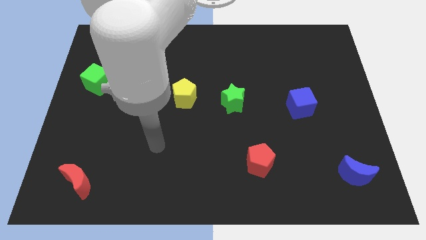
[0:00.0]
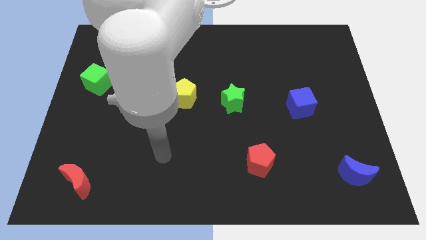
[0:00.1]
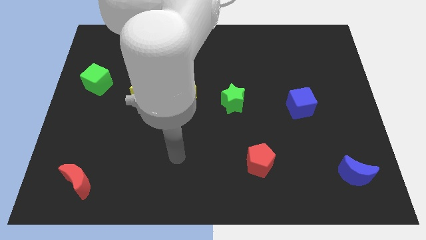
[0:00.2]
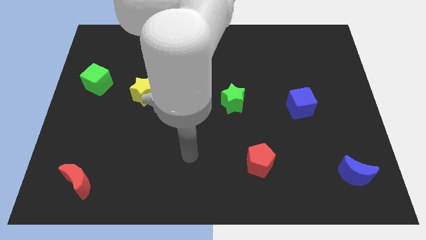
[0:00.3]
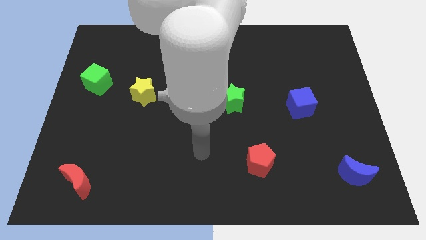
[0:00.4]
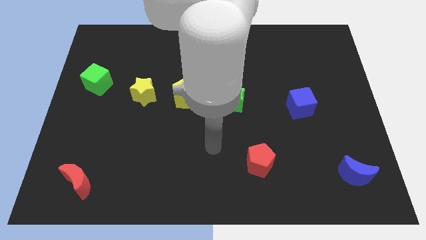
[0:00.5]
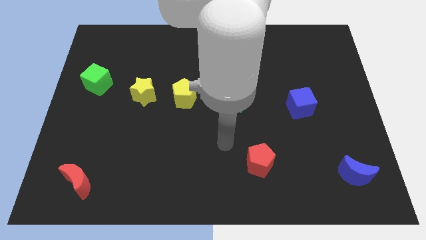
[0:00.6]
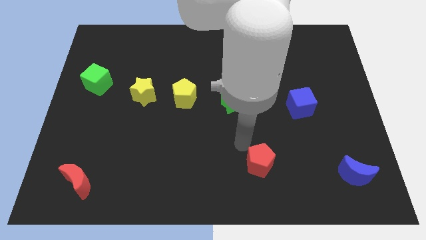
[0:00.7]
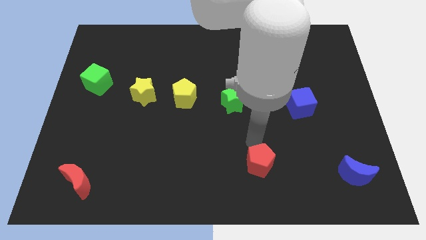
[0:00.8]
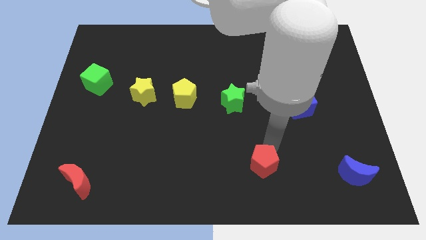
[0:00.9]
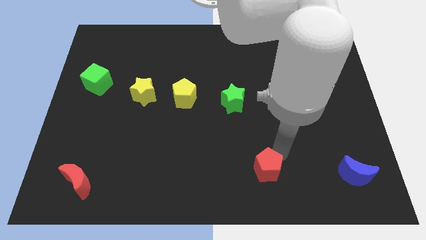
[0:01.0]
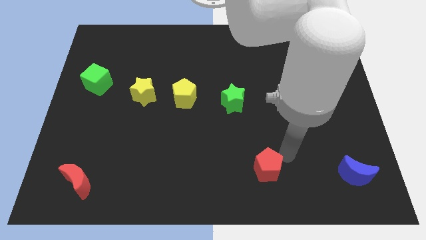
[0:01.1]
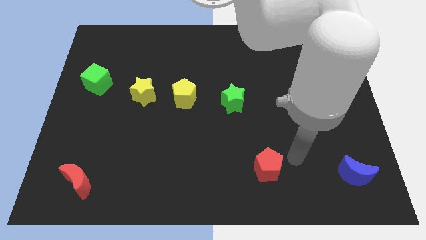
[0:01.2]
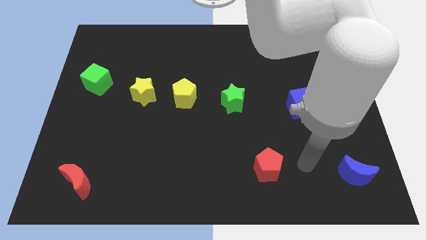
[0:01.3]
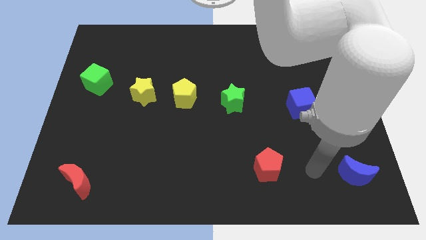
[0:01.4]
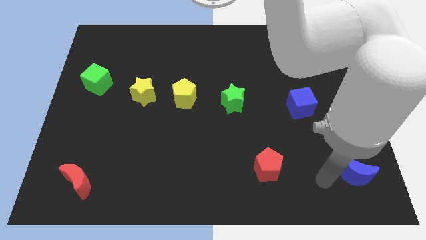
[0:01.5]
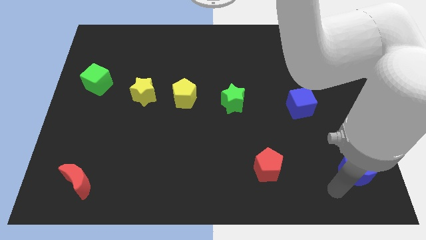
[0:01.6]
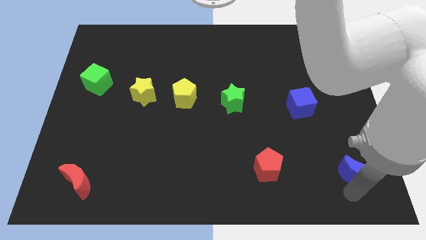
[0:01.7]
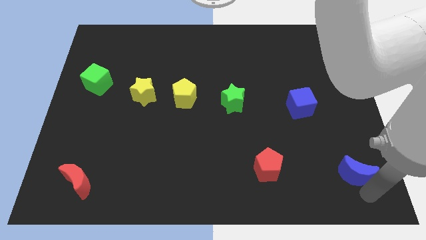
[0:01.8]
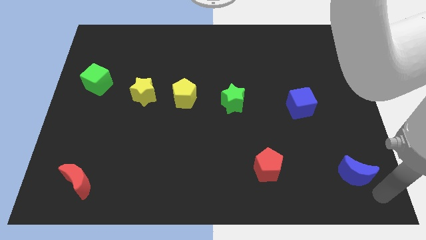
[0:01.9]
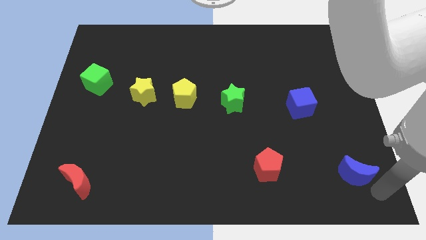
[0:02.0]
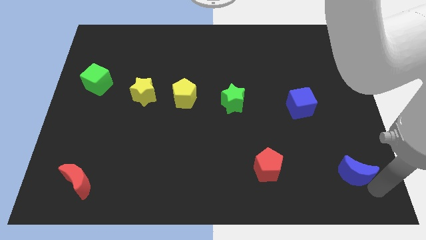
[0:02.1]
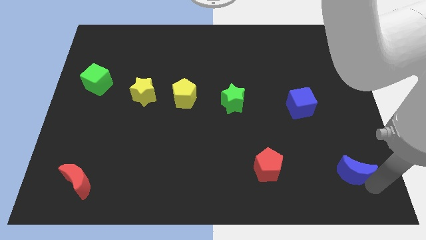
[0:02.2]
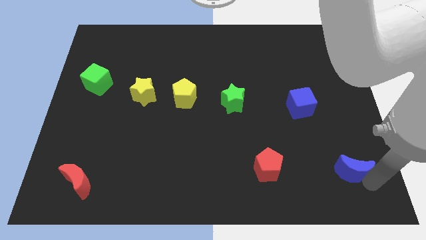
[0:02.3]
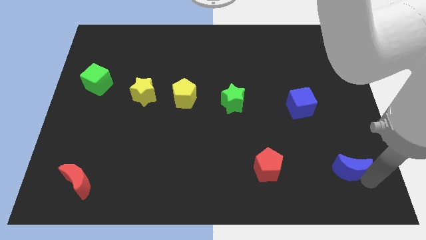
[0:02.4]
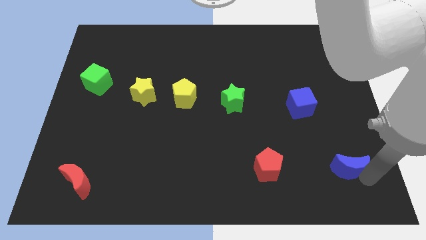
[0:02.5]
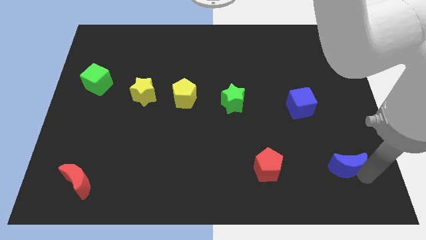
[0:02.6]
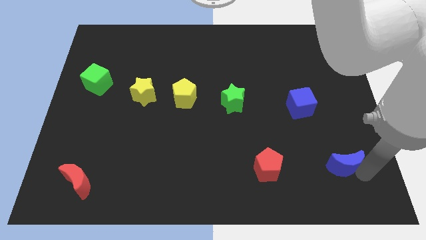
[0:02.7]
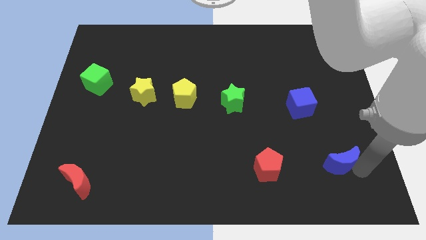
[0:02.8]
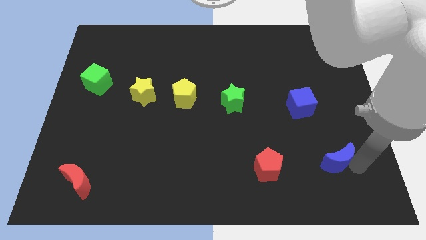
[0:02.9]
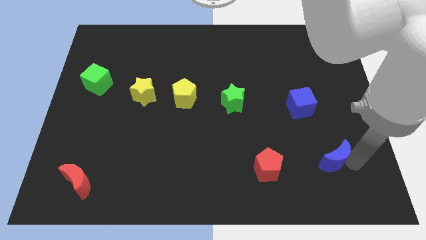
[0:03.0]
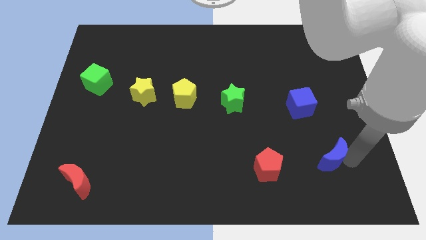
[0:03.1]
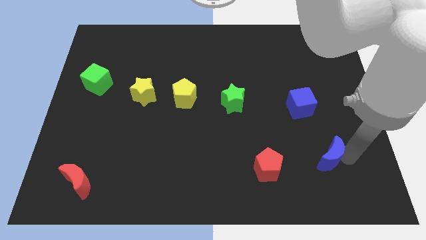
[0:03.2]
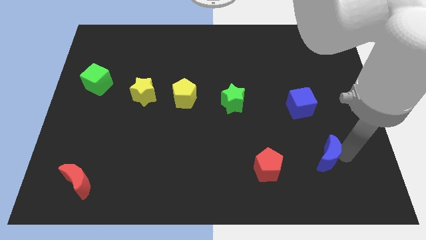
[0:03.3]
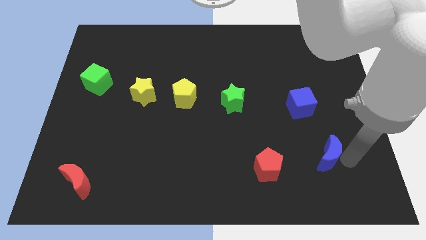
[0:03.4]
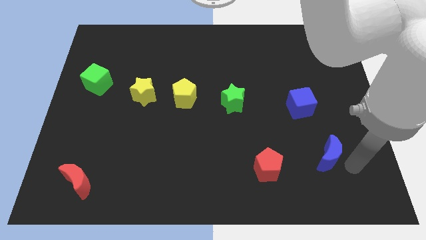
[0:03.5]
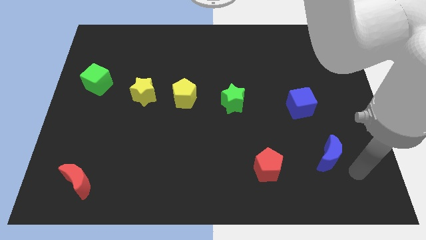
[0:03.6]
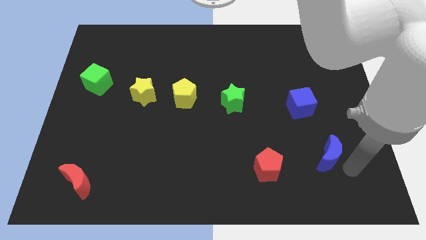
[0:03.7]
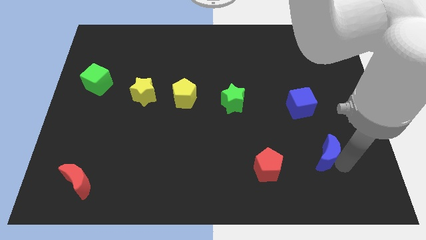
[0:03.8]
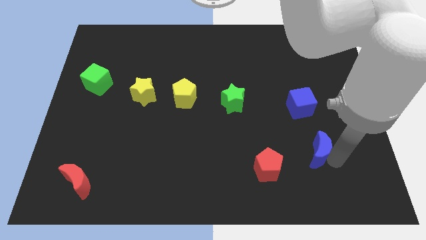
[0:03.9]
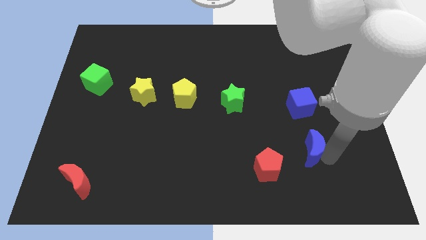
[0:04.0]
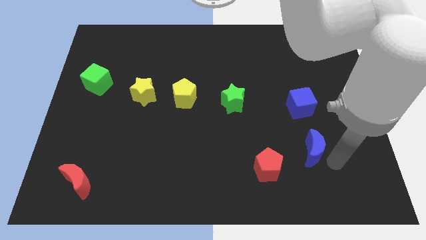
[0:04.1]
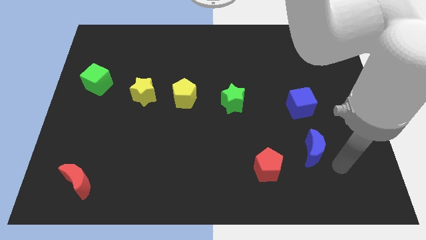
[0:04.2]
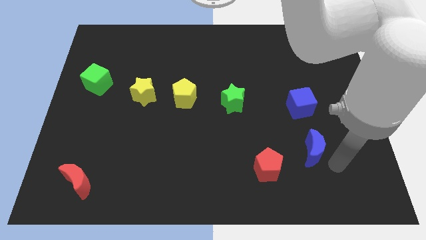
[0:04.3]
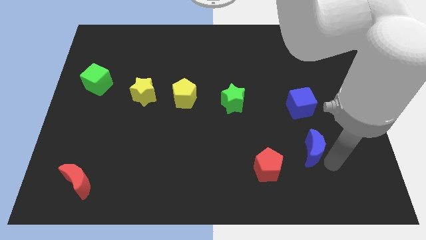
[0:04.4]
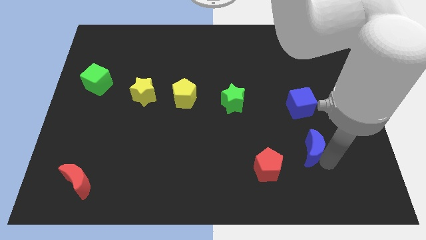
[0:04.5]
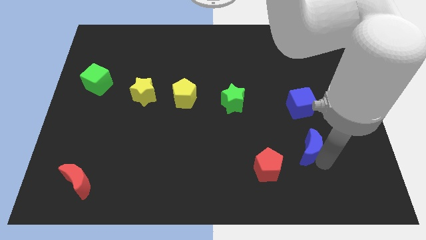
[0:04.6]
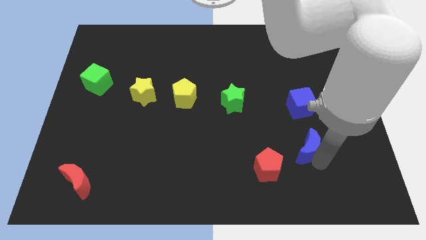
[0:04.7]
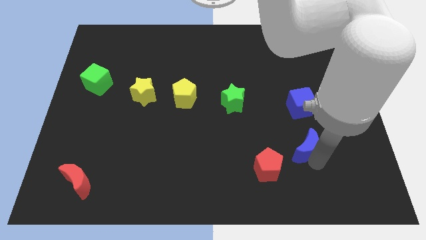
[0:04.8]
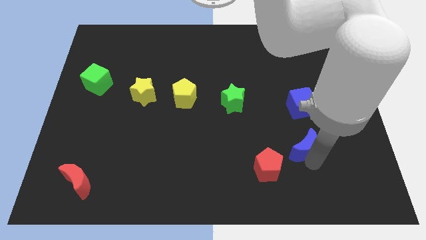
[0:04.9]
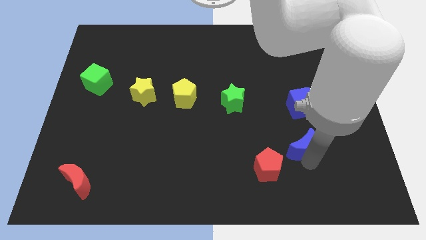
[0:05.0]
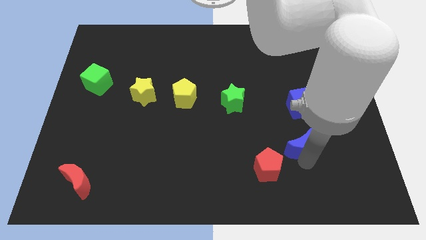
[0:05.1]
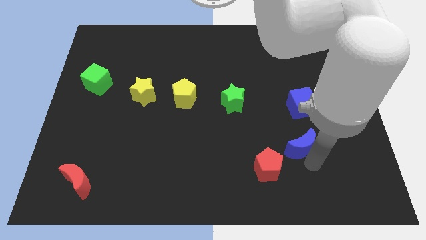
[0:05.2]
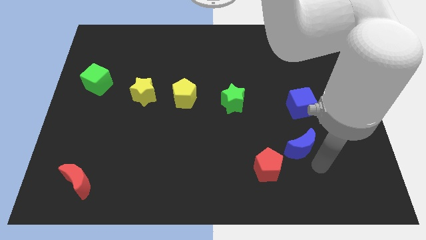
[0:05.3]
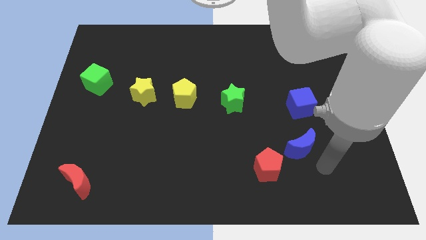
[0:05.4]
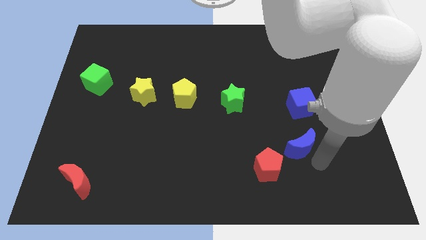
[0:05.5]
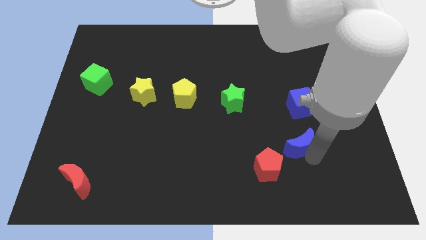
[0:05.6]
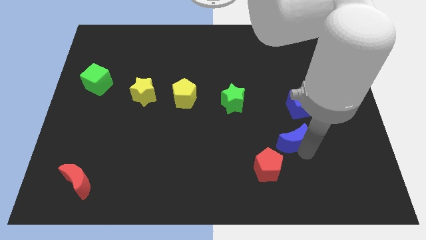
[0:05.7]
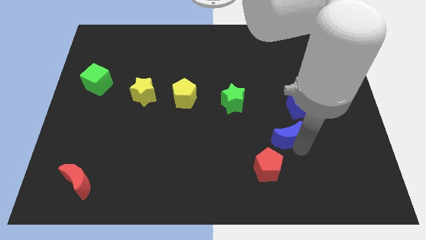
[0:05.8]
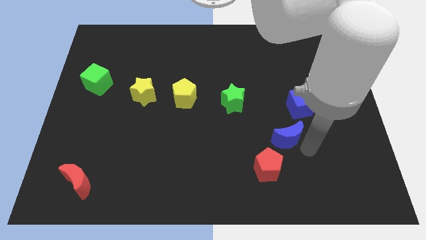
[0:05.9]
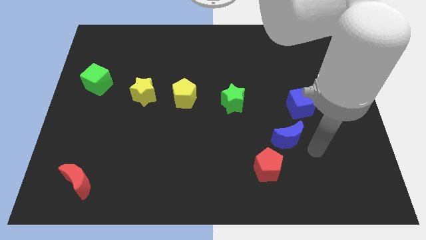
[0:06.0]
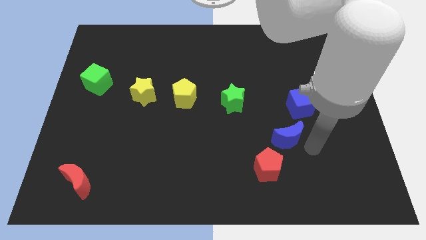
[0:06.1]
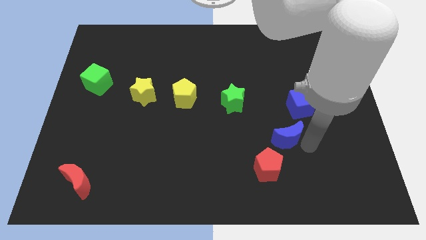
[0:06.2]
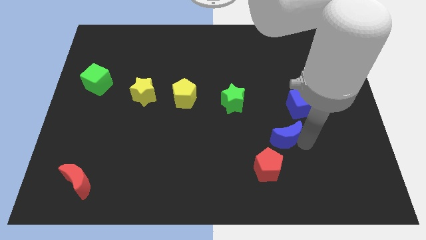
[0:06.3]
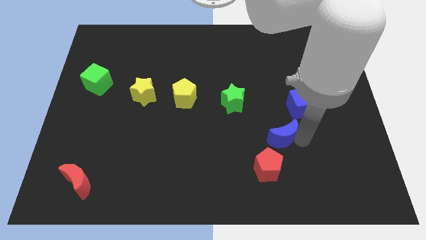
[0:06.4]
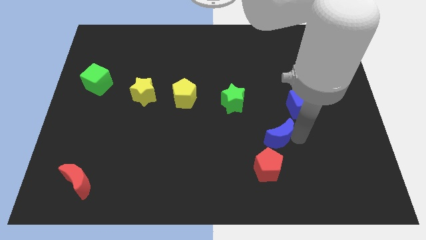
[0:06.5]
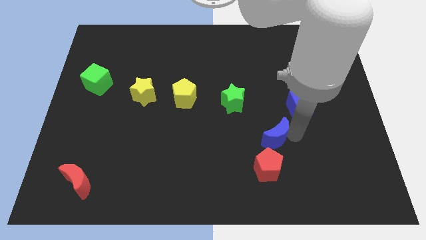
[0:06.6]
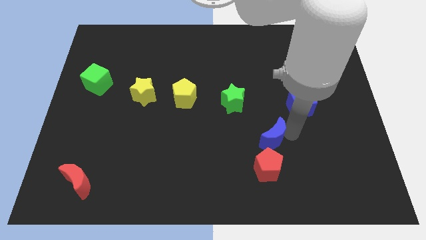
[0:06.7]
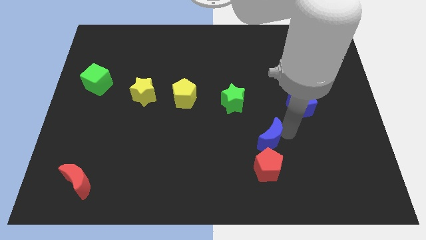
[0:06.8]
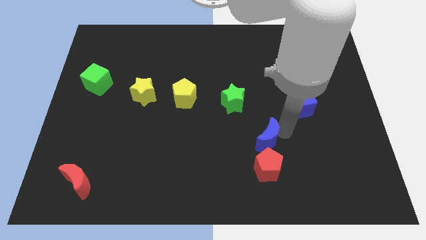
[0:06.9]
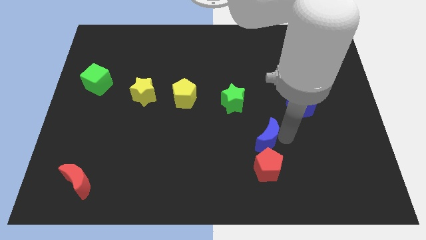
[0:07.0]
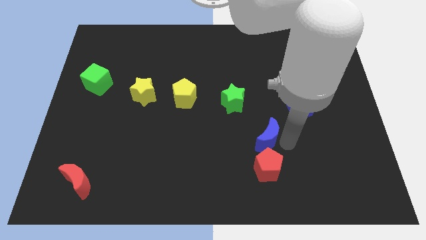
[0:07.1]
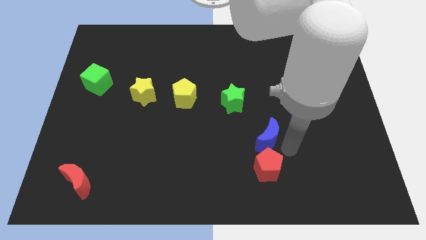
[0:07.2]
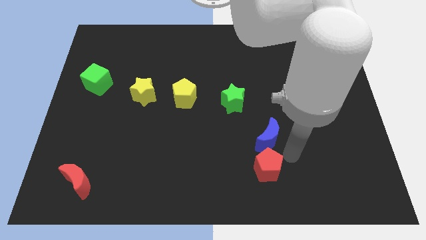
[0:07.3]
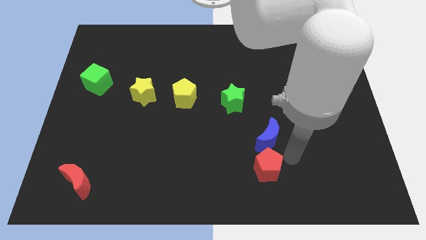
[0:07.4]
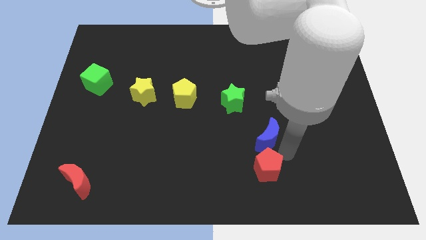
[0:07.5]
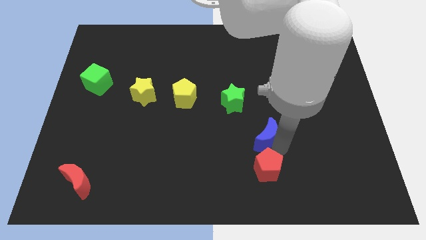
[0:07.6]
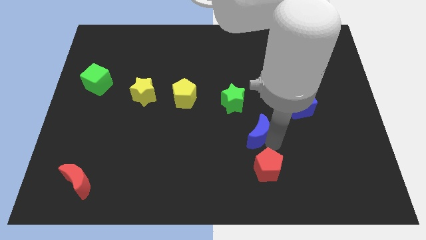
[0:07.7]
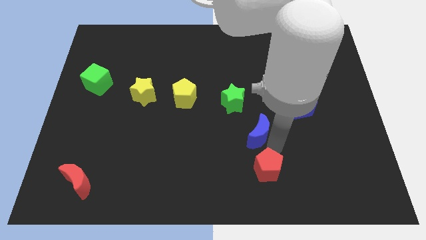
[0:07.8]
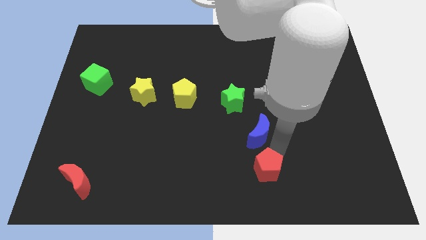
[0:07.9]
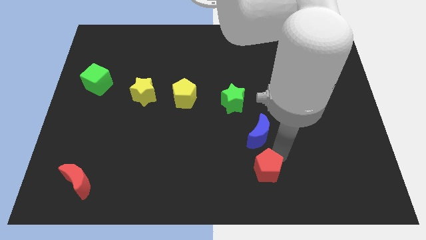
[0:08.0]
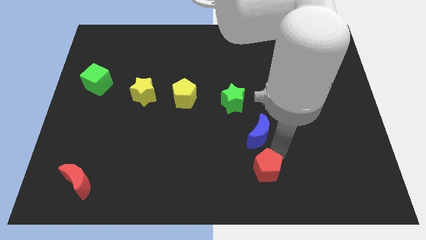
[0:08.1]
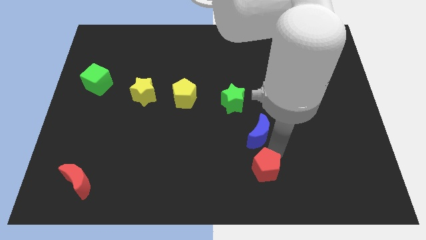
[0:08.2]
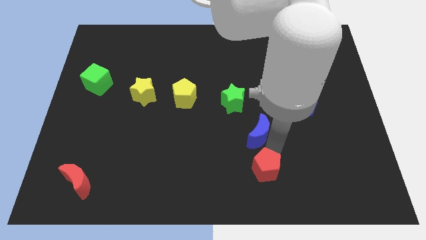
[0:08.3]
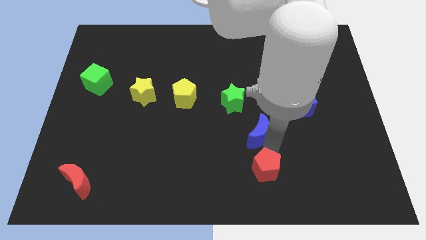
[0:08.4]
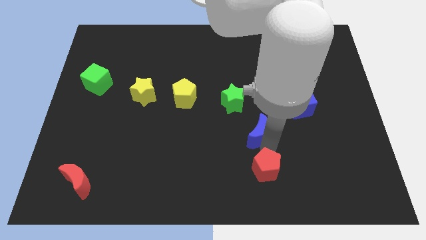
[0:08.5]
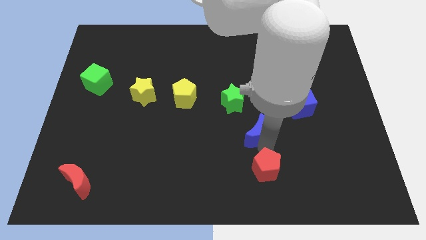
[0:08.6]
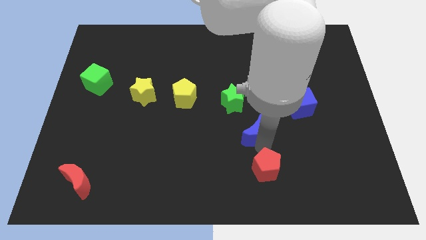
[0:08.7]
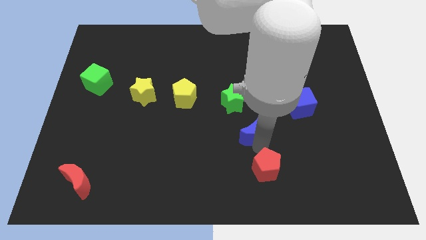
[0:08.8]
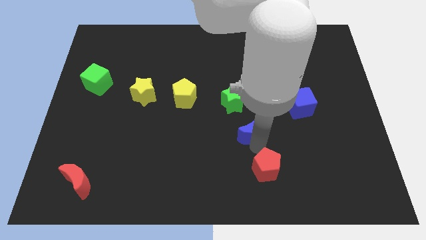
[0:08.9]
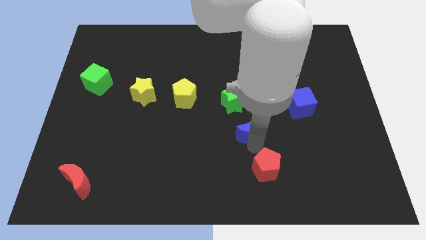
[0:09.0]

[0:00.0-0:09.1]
move the blue moon to the center of the board
